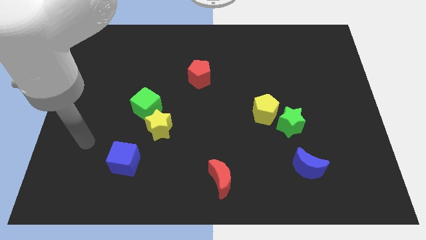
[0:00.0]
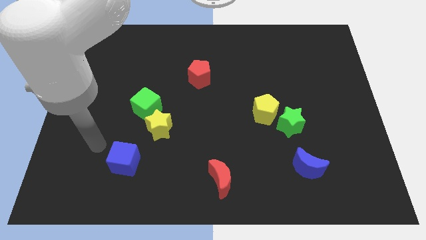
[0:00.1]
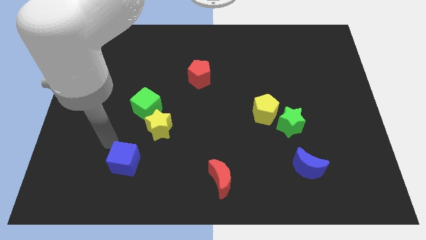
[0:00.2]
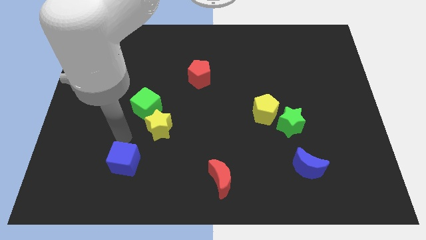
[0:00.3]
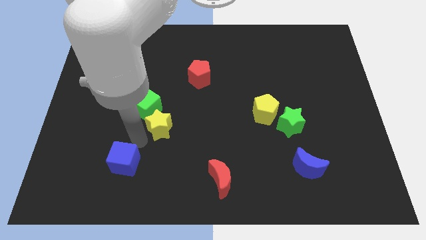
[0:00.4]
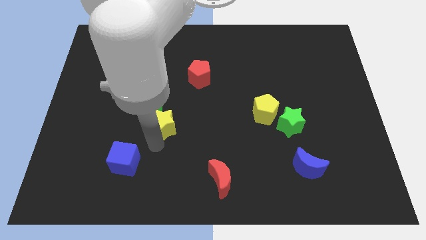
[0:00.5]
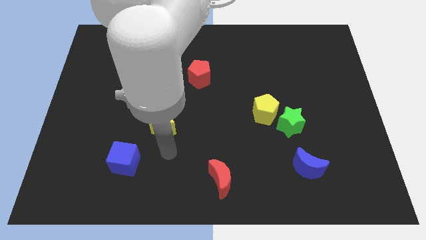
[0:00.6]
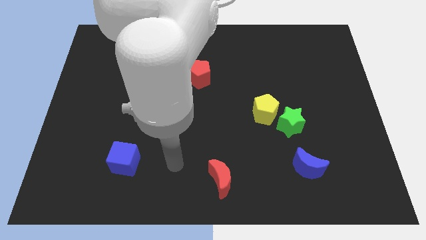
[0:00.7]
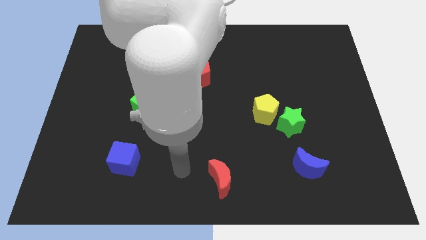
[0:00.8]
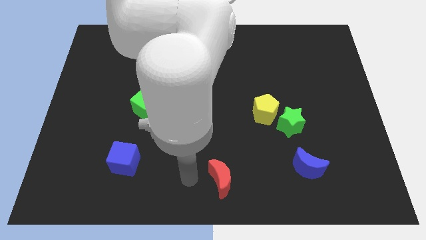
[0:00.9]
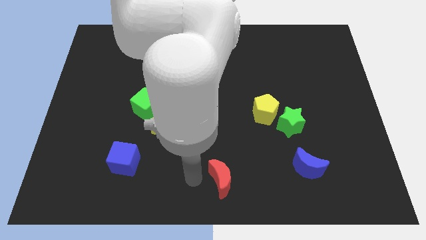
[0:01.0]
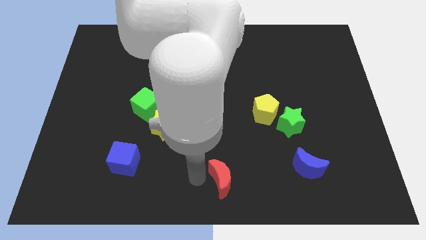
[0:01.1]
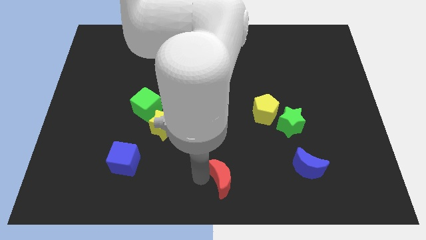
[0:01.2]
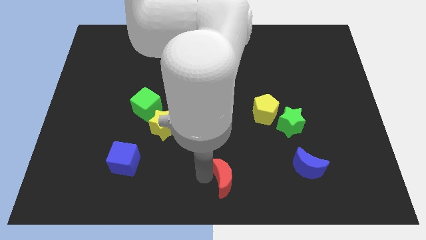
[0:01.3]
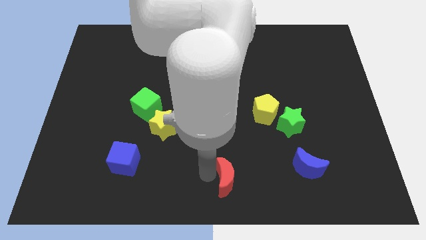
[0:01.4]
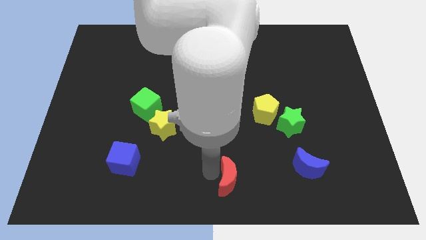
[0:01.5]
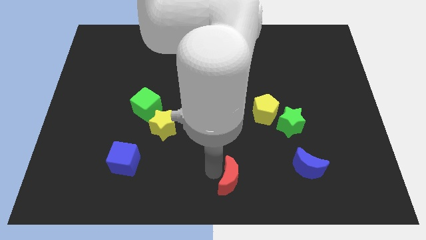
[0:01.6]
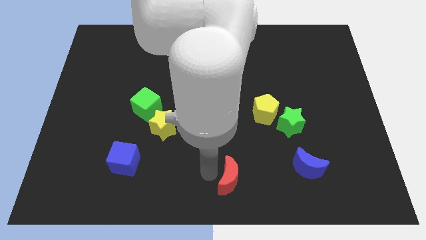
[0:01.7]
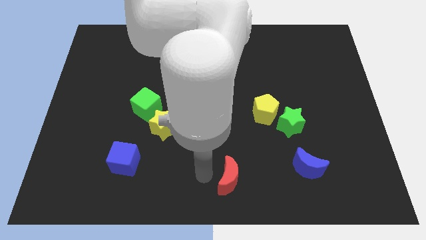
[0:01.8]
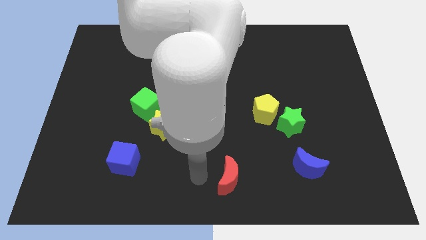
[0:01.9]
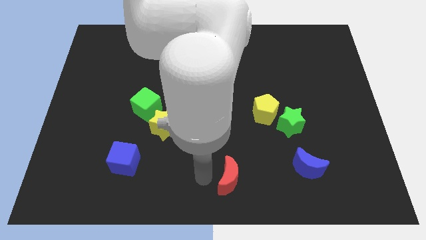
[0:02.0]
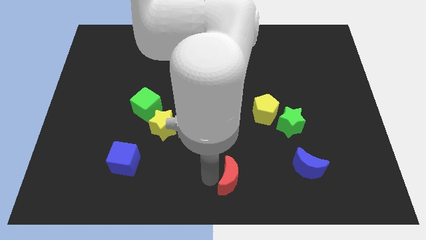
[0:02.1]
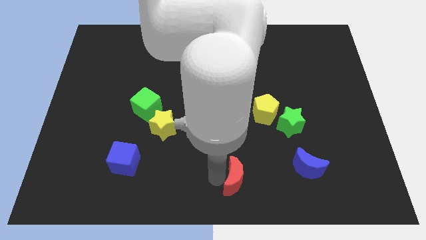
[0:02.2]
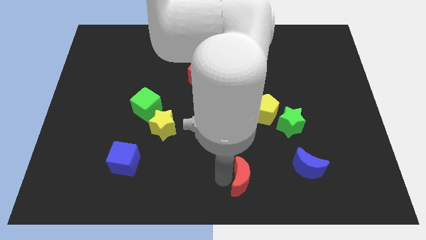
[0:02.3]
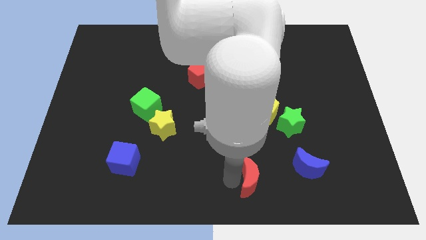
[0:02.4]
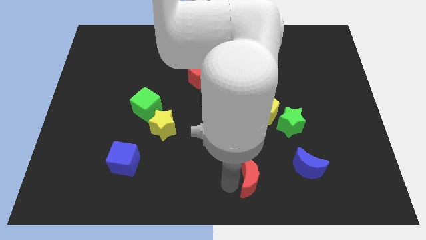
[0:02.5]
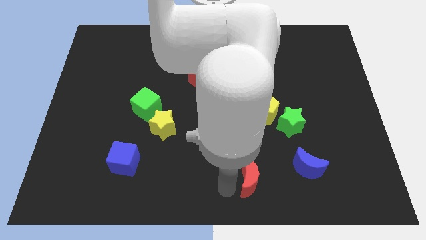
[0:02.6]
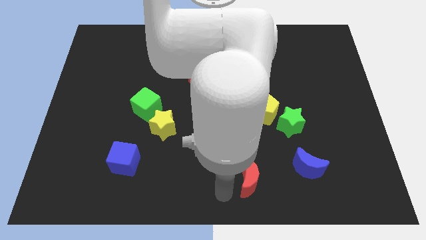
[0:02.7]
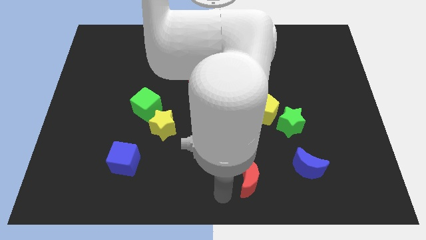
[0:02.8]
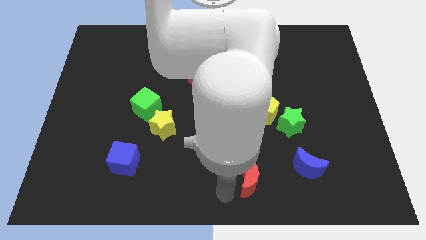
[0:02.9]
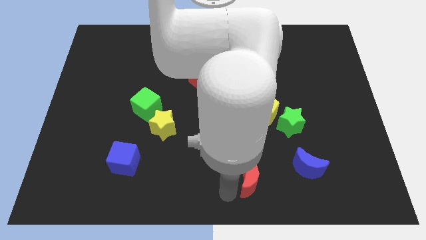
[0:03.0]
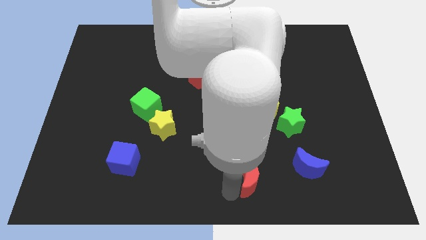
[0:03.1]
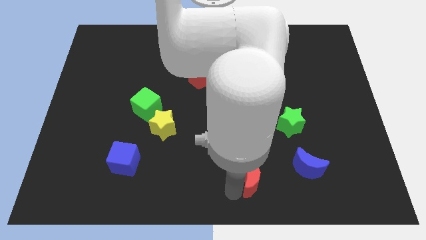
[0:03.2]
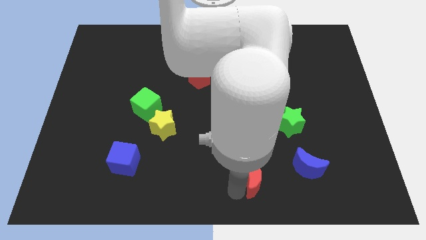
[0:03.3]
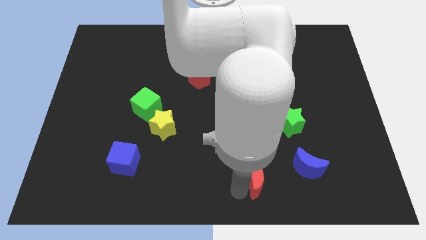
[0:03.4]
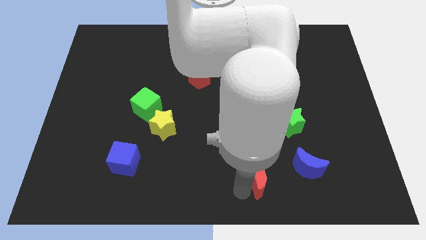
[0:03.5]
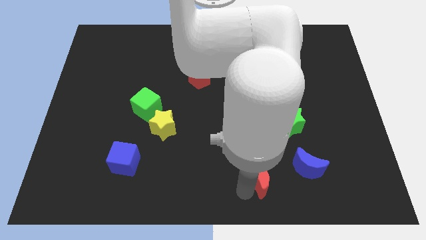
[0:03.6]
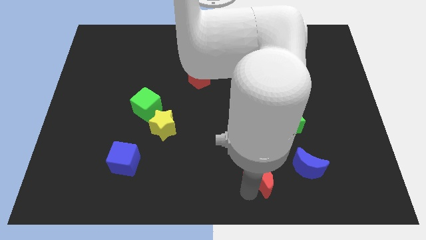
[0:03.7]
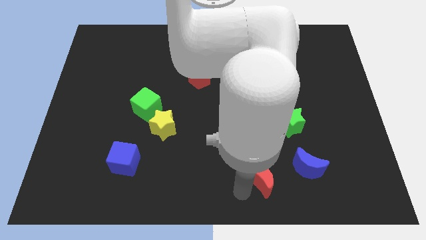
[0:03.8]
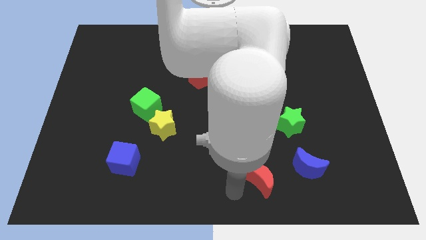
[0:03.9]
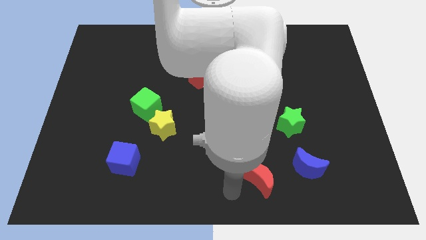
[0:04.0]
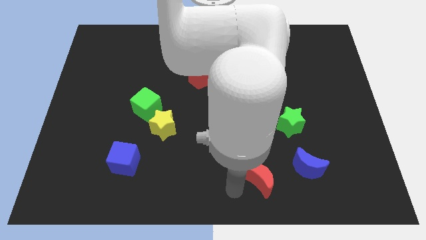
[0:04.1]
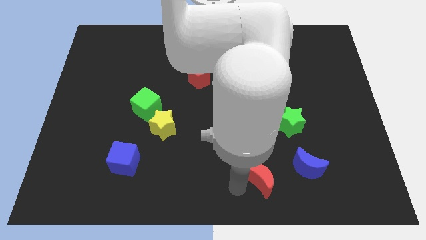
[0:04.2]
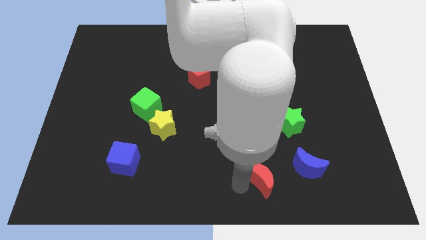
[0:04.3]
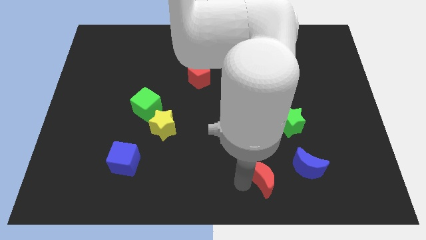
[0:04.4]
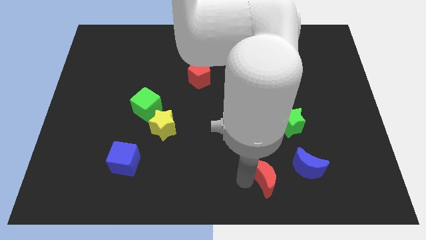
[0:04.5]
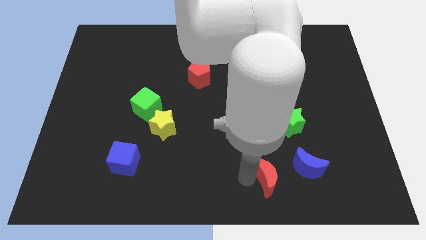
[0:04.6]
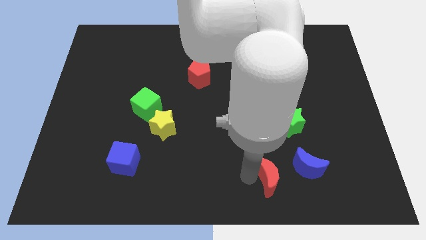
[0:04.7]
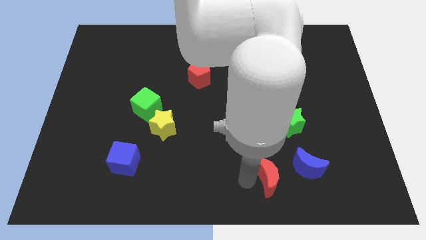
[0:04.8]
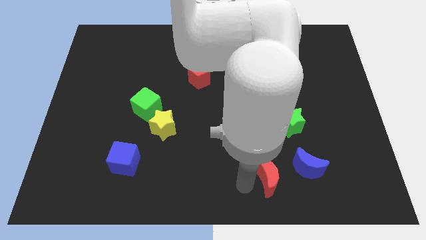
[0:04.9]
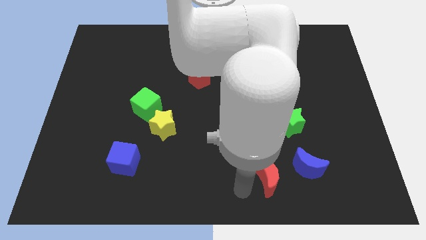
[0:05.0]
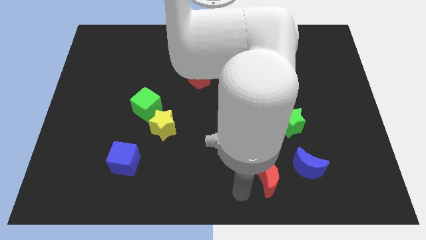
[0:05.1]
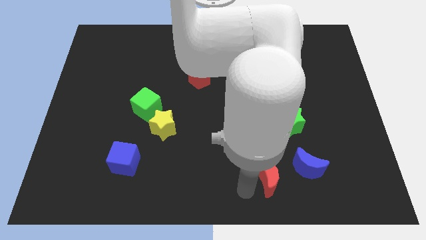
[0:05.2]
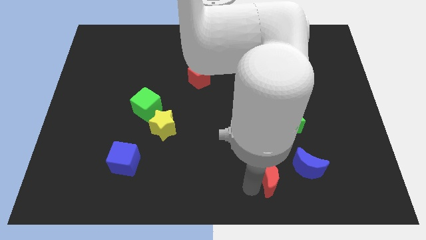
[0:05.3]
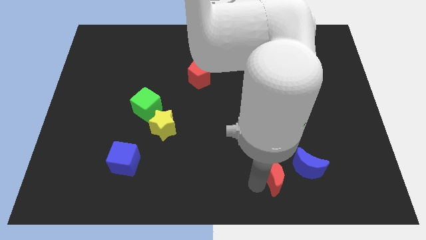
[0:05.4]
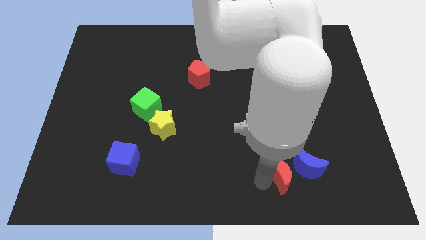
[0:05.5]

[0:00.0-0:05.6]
move the red moon to the blue moon

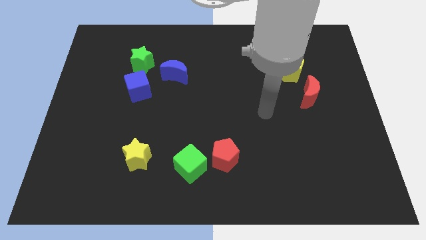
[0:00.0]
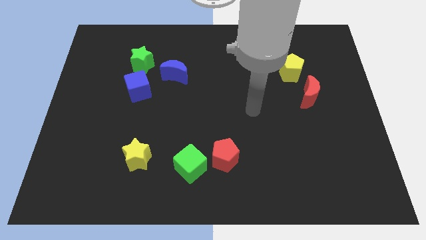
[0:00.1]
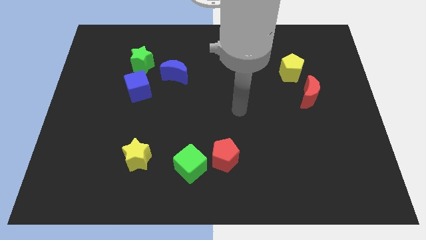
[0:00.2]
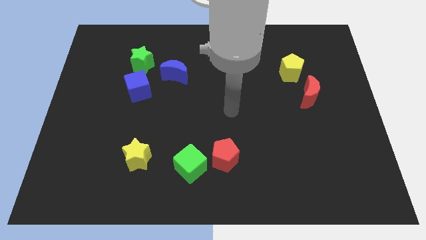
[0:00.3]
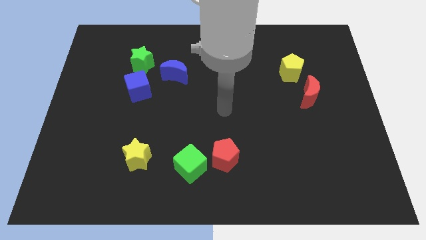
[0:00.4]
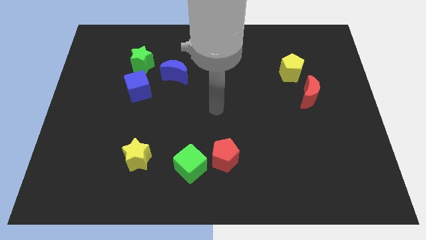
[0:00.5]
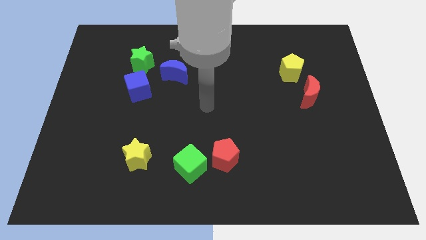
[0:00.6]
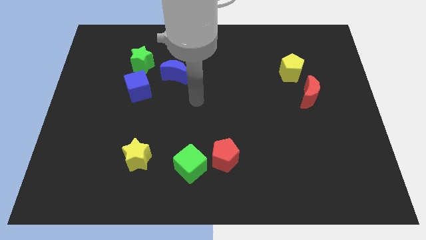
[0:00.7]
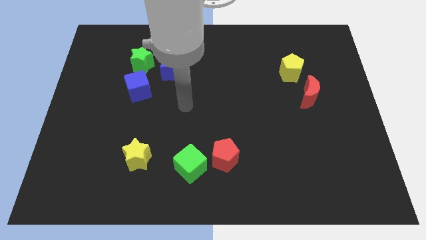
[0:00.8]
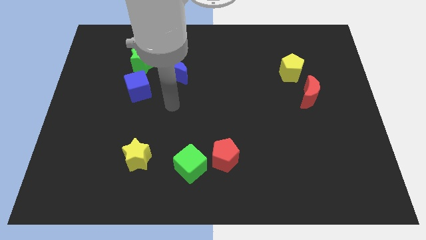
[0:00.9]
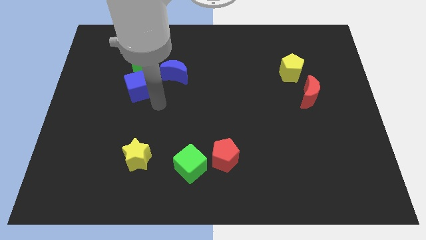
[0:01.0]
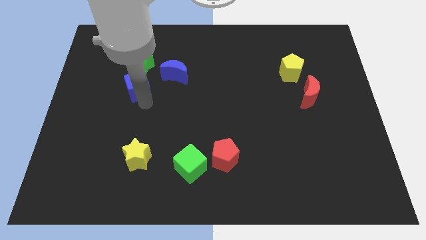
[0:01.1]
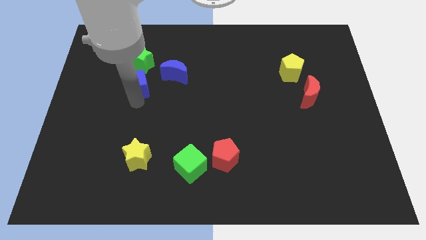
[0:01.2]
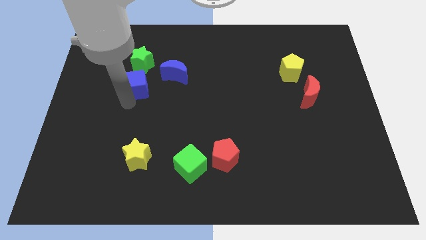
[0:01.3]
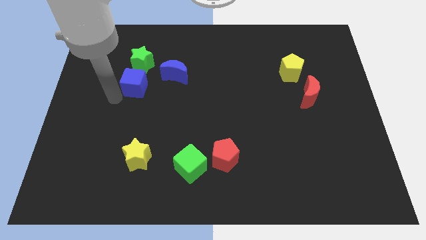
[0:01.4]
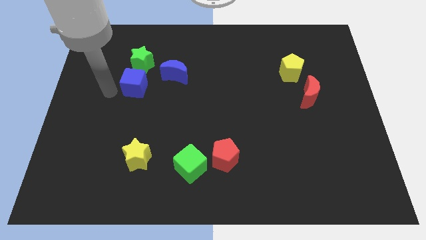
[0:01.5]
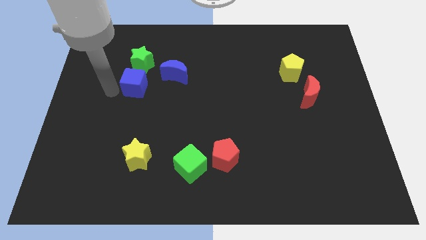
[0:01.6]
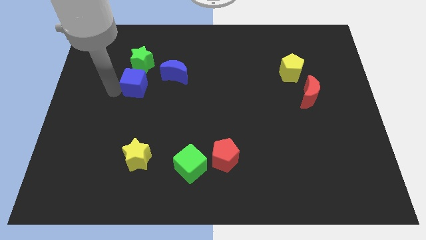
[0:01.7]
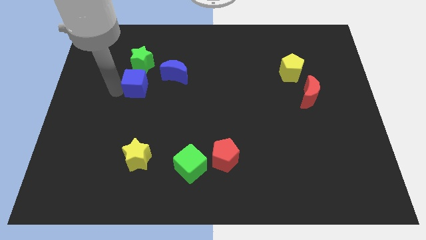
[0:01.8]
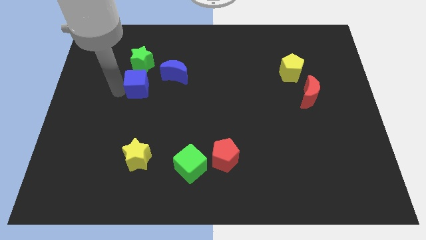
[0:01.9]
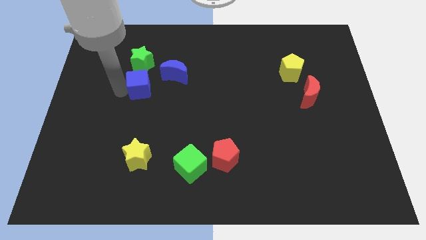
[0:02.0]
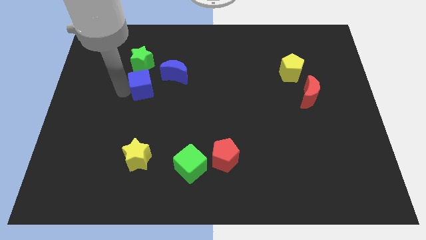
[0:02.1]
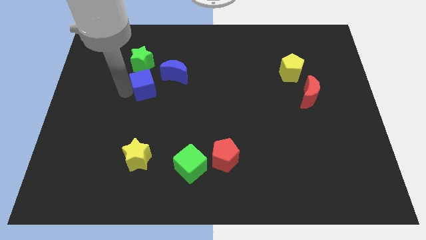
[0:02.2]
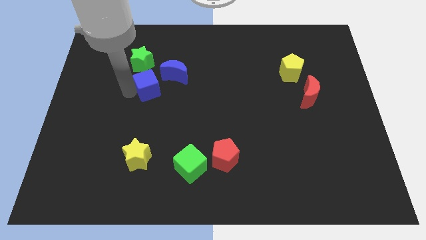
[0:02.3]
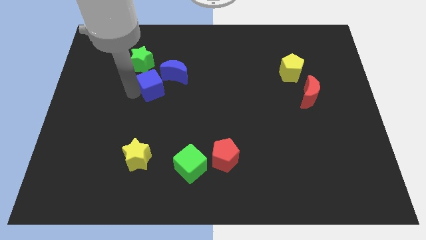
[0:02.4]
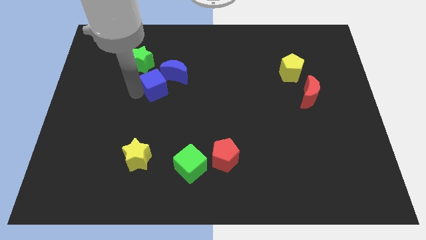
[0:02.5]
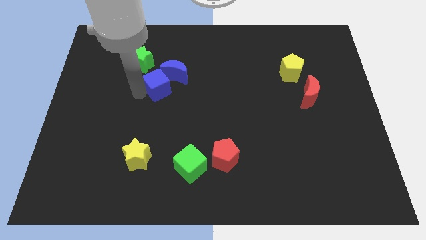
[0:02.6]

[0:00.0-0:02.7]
slide the blue cube next to the blue moon
